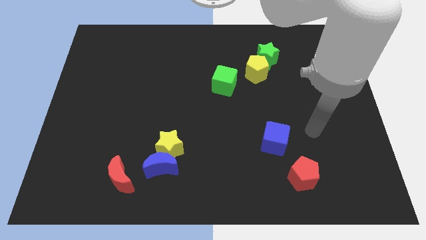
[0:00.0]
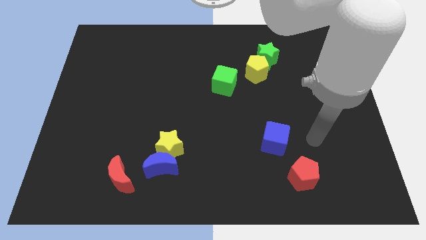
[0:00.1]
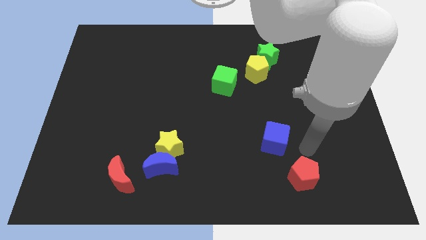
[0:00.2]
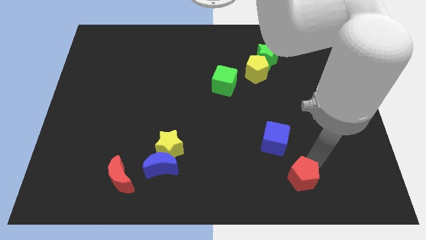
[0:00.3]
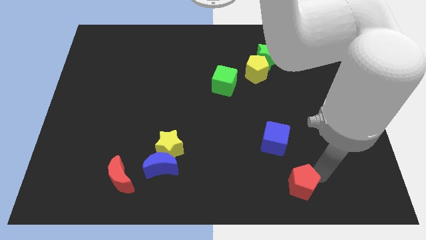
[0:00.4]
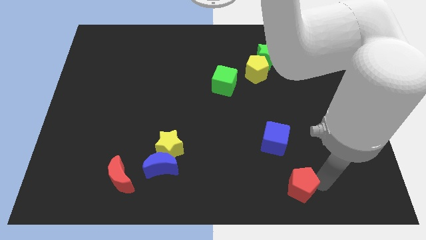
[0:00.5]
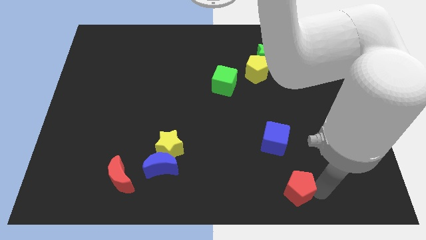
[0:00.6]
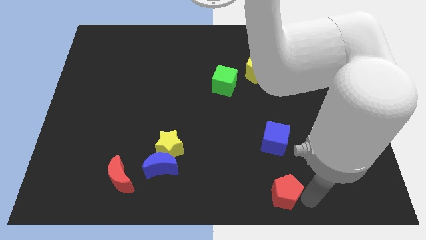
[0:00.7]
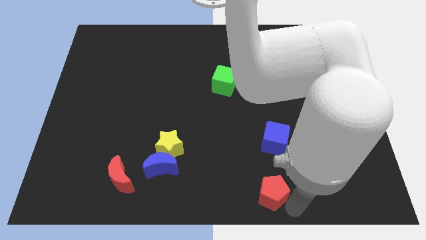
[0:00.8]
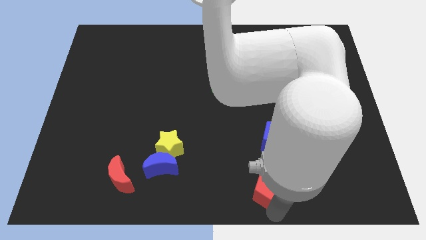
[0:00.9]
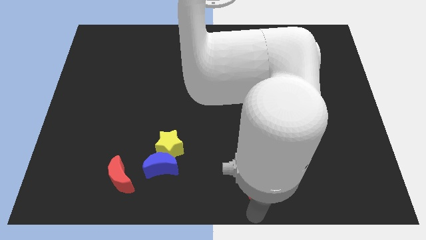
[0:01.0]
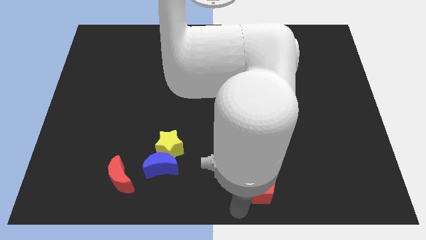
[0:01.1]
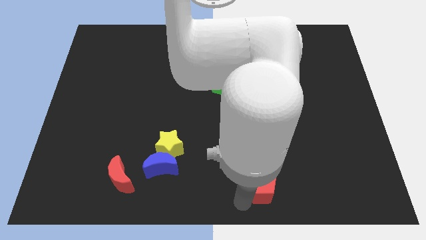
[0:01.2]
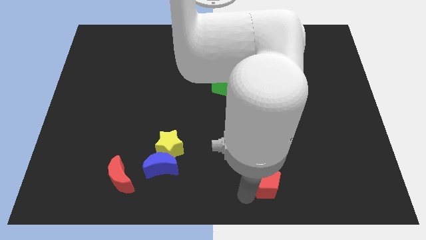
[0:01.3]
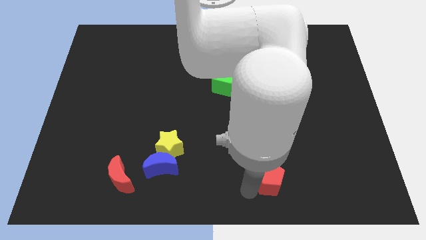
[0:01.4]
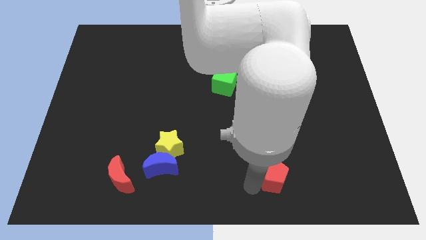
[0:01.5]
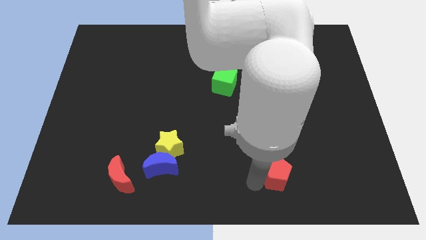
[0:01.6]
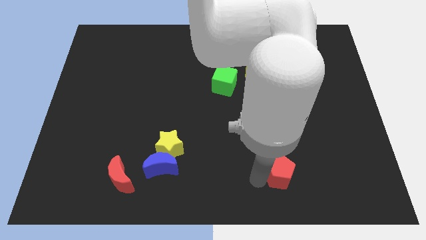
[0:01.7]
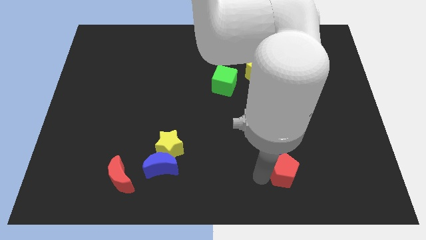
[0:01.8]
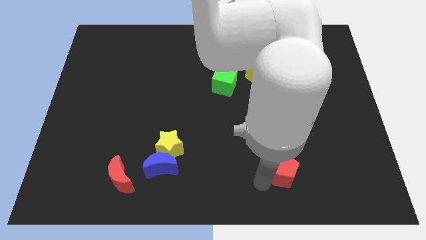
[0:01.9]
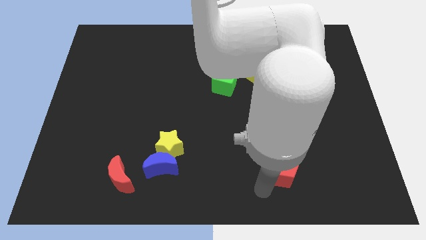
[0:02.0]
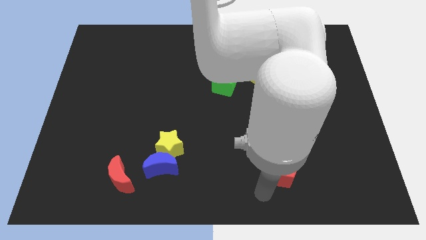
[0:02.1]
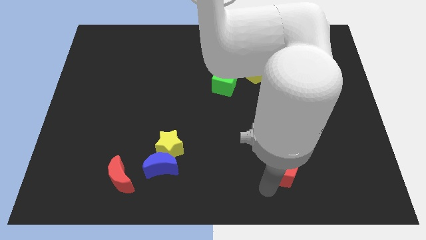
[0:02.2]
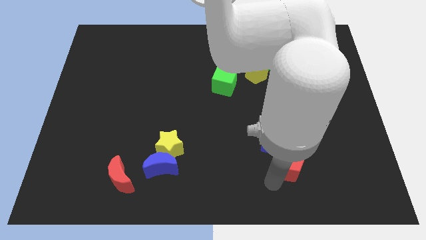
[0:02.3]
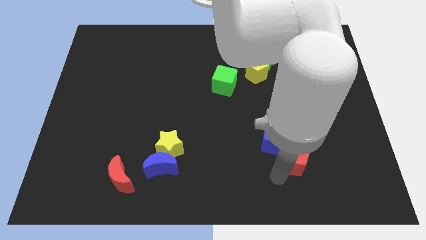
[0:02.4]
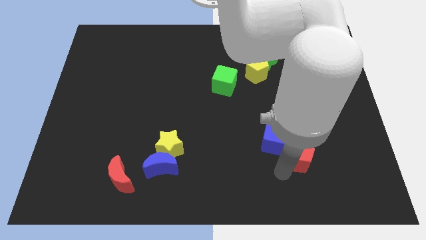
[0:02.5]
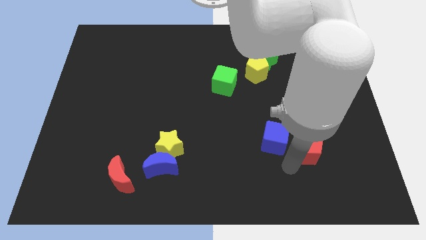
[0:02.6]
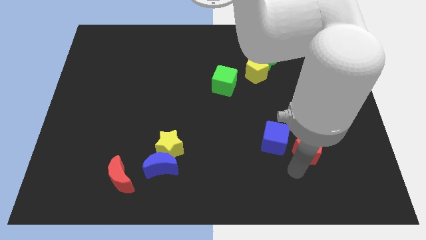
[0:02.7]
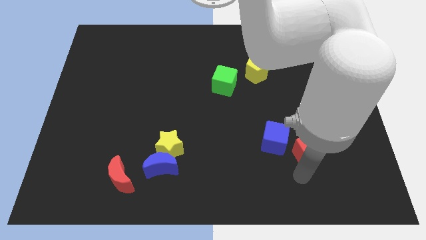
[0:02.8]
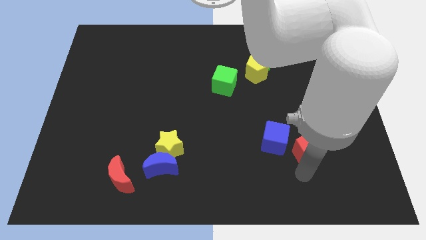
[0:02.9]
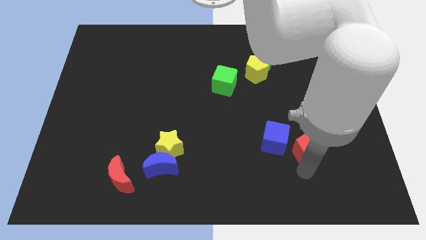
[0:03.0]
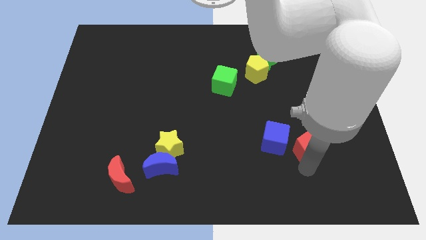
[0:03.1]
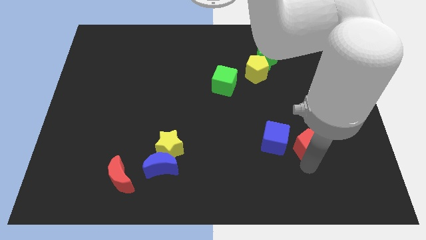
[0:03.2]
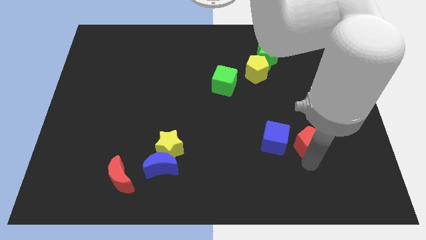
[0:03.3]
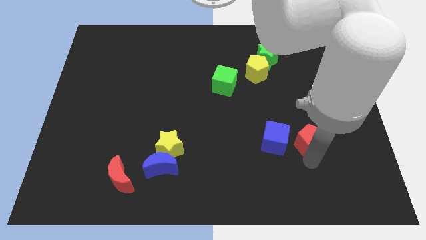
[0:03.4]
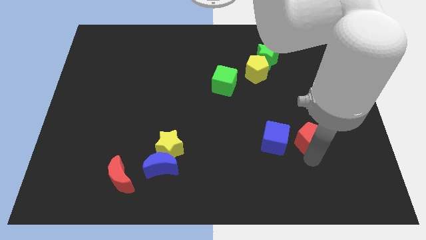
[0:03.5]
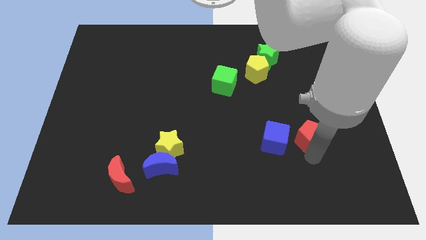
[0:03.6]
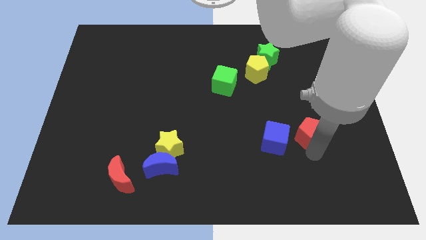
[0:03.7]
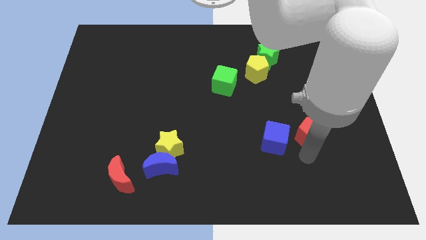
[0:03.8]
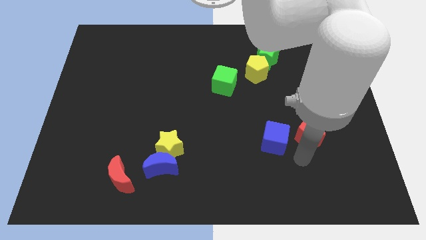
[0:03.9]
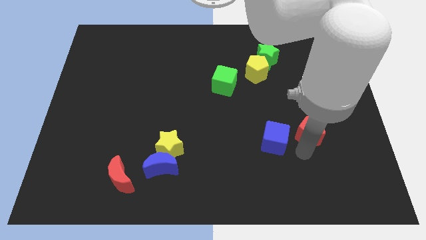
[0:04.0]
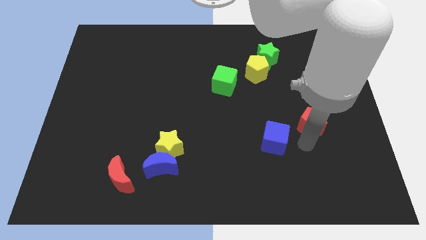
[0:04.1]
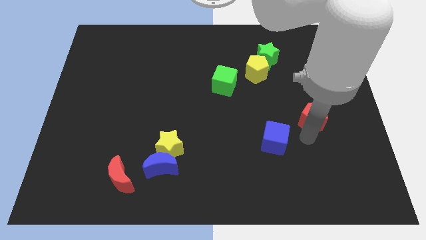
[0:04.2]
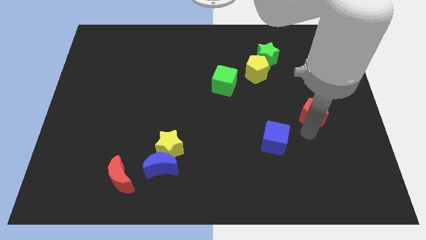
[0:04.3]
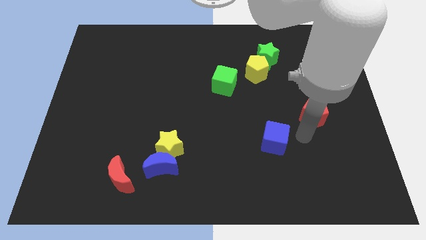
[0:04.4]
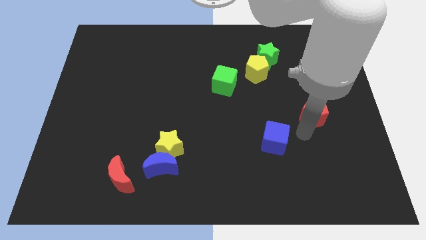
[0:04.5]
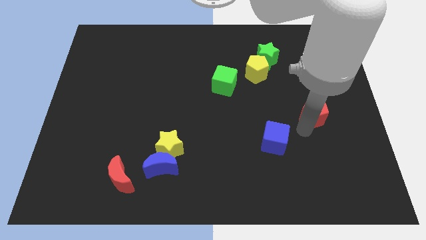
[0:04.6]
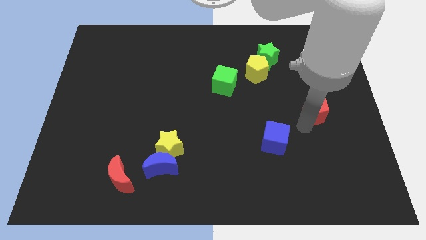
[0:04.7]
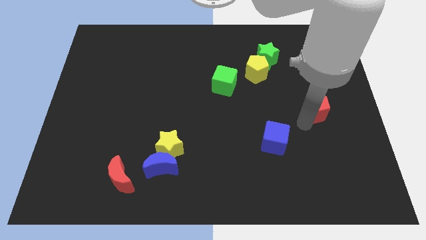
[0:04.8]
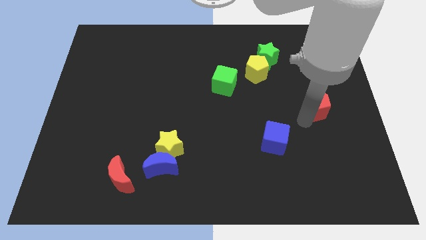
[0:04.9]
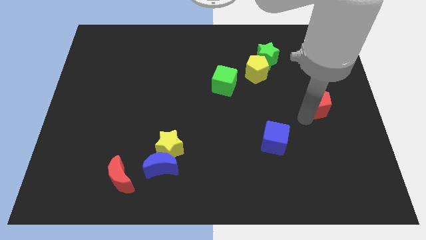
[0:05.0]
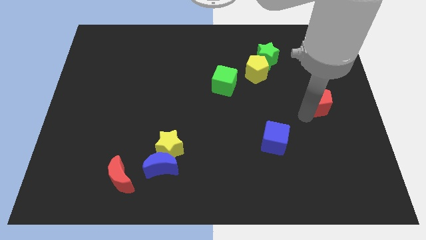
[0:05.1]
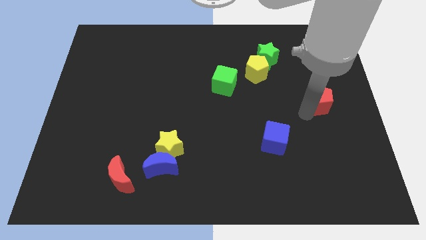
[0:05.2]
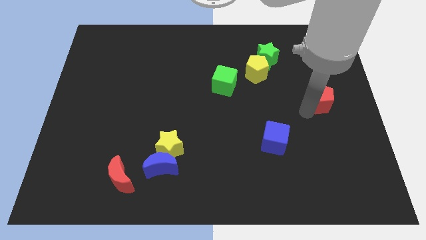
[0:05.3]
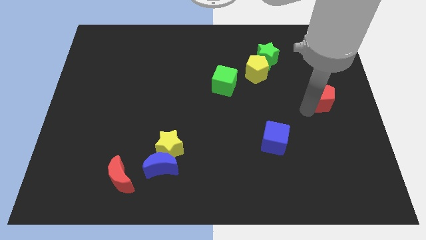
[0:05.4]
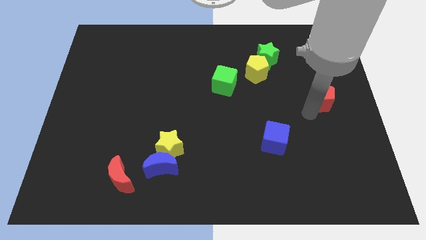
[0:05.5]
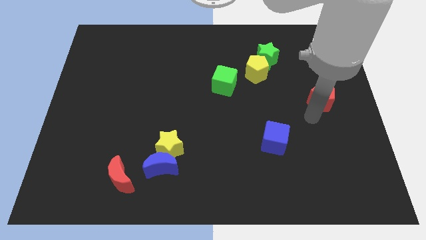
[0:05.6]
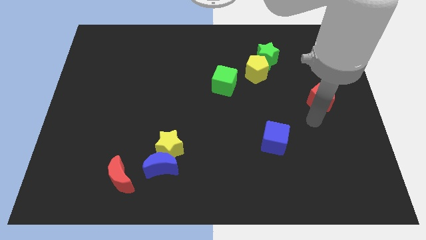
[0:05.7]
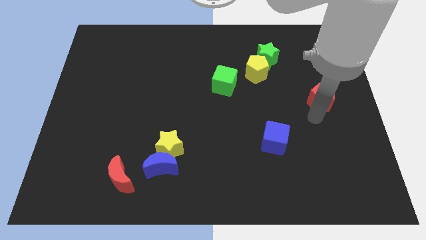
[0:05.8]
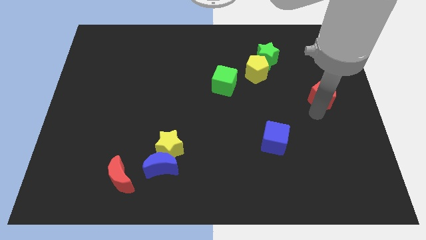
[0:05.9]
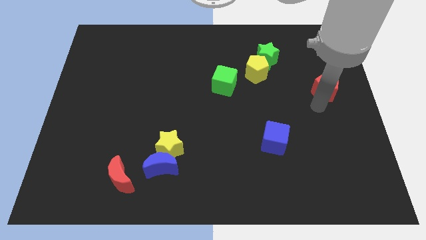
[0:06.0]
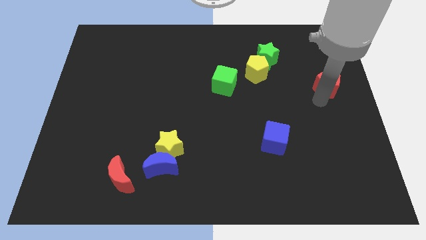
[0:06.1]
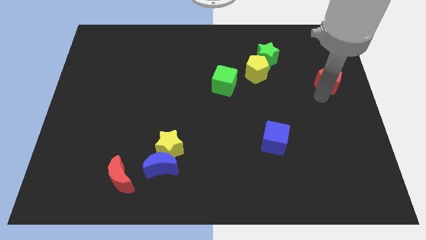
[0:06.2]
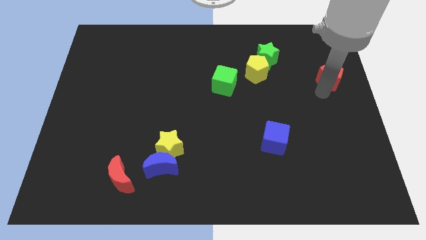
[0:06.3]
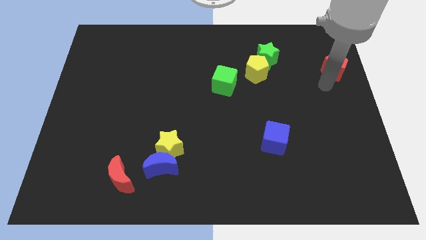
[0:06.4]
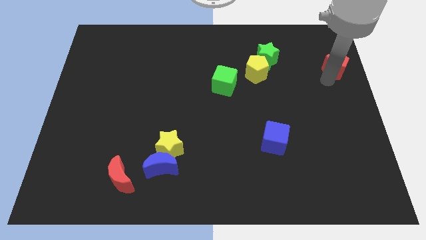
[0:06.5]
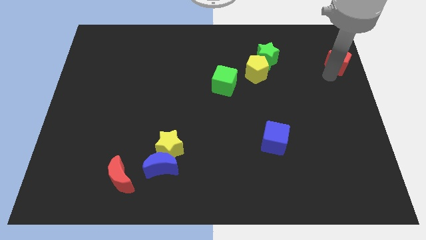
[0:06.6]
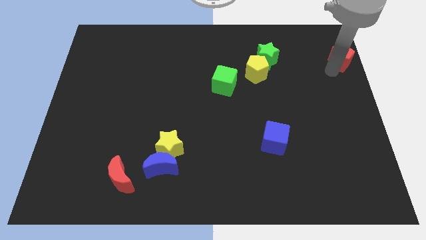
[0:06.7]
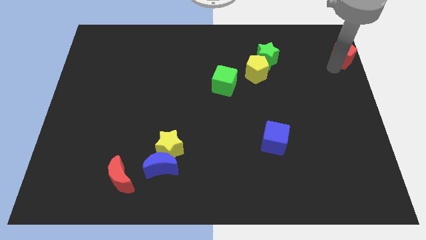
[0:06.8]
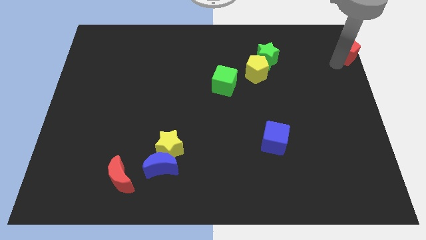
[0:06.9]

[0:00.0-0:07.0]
push the red pentagon to the top right of the board
